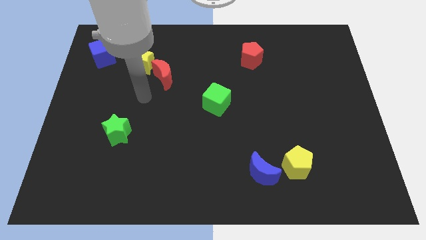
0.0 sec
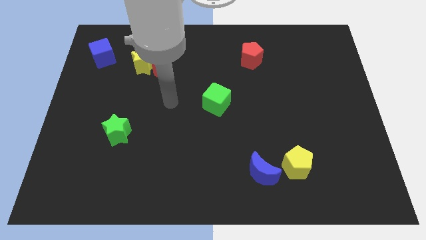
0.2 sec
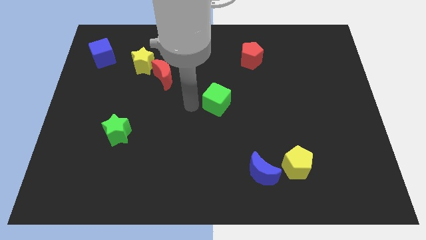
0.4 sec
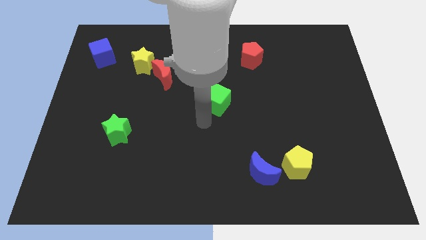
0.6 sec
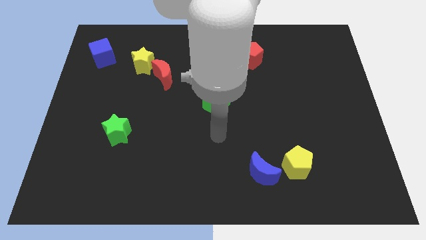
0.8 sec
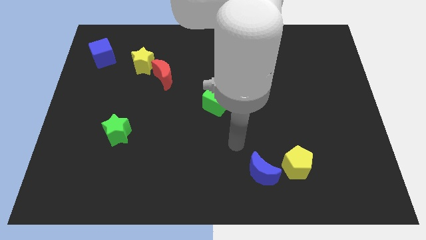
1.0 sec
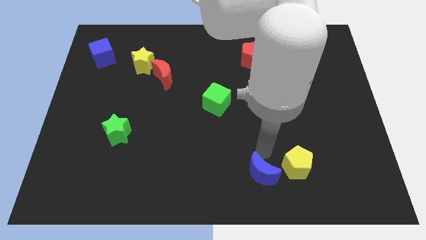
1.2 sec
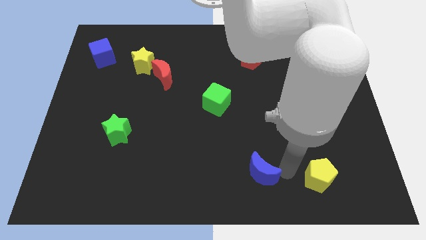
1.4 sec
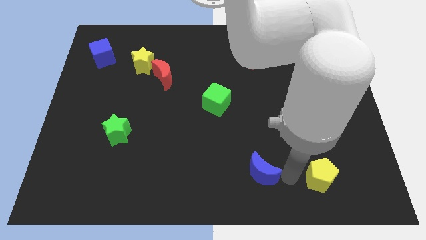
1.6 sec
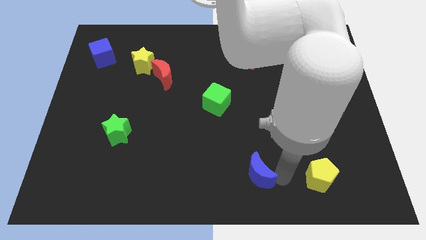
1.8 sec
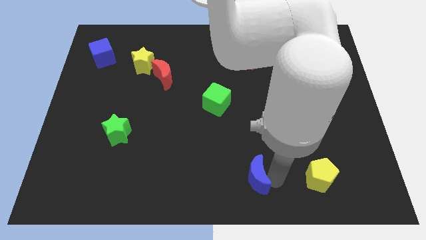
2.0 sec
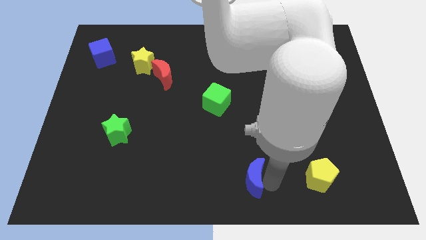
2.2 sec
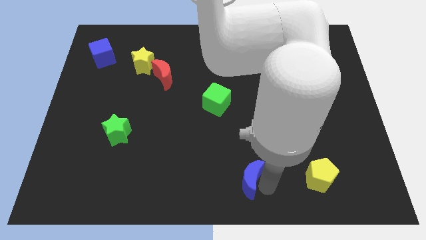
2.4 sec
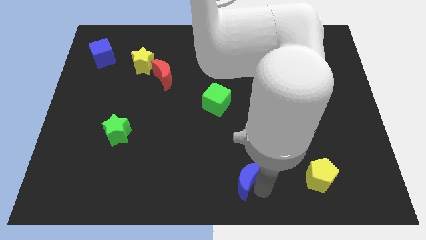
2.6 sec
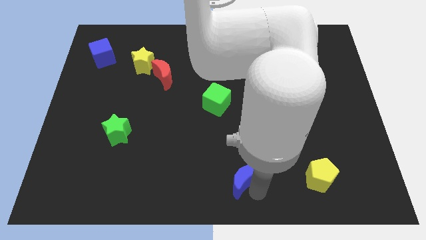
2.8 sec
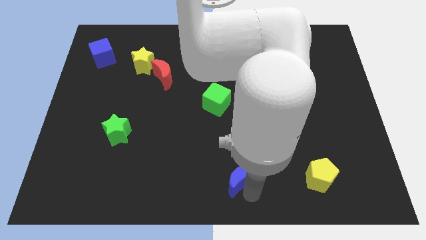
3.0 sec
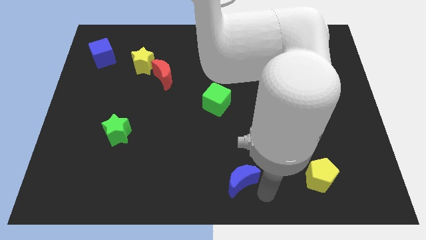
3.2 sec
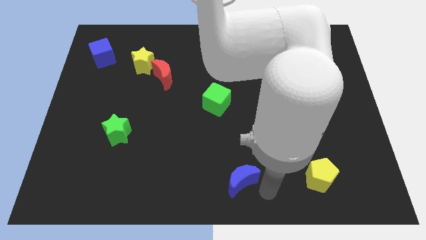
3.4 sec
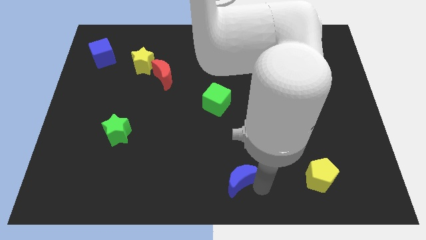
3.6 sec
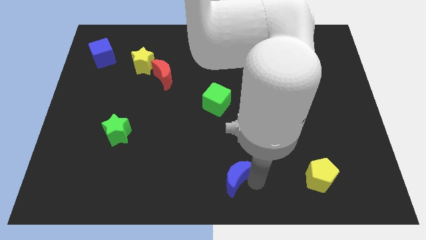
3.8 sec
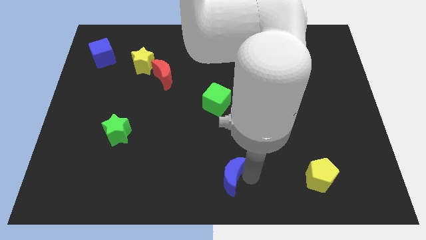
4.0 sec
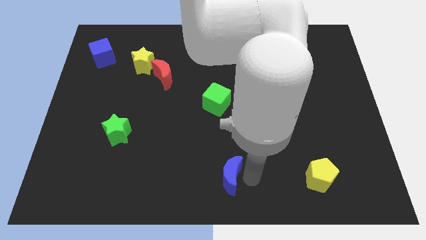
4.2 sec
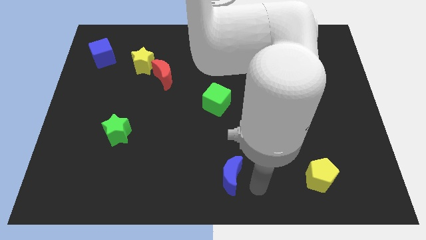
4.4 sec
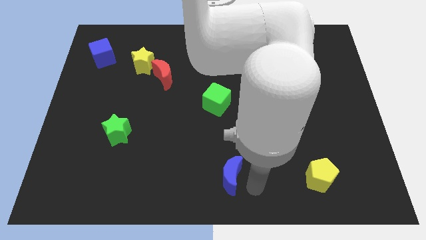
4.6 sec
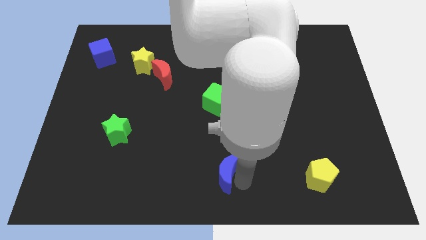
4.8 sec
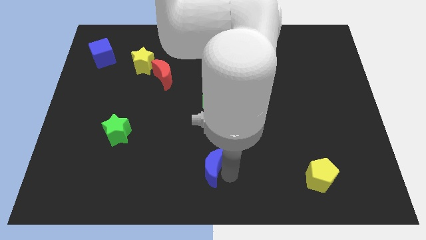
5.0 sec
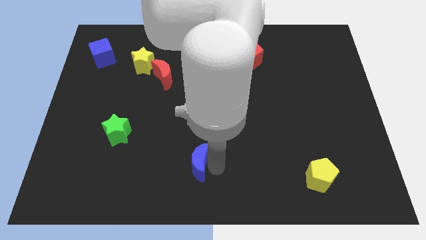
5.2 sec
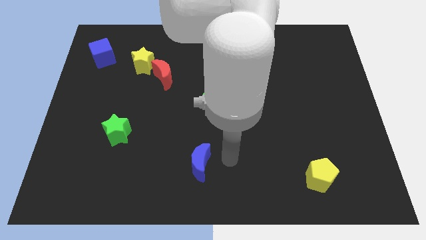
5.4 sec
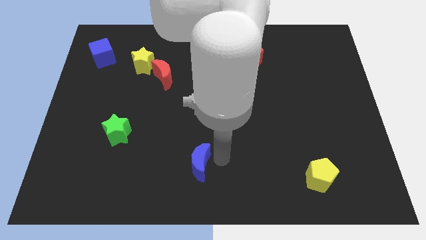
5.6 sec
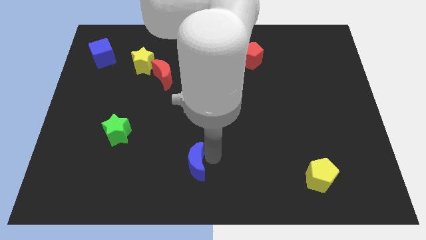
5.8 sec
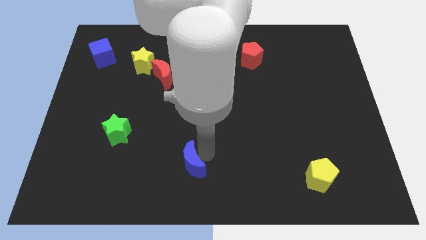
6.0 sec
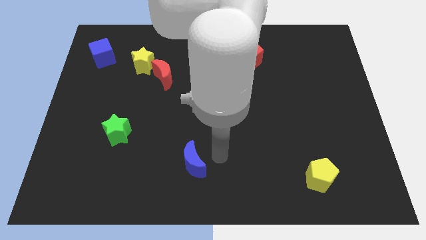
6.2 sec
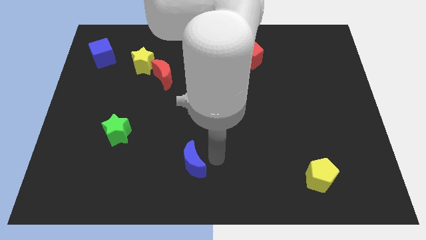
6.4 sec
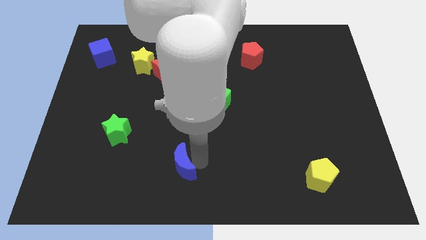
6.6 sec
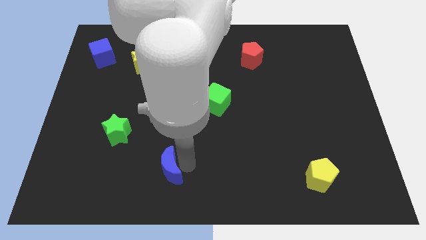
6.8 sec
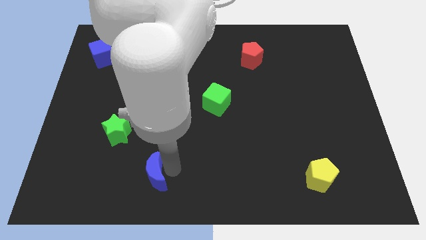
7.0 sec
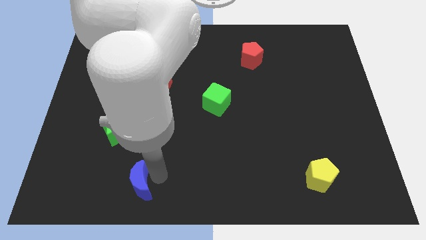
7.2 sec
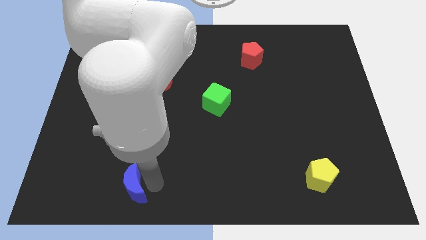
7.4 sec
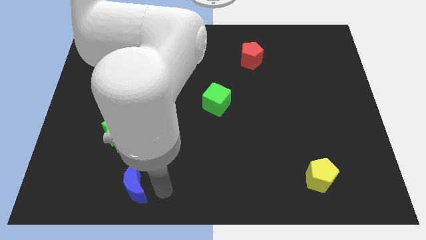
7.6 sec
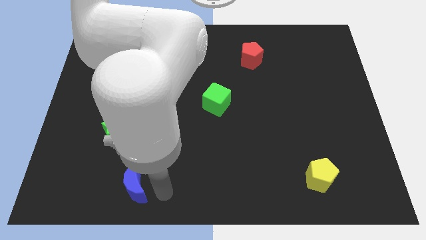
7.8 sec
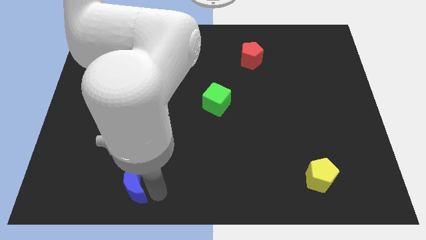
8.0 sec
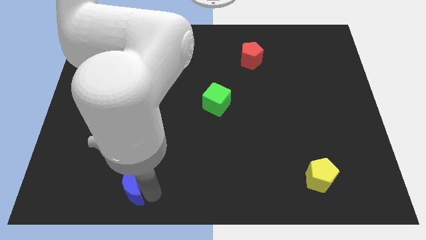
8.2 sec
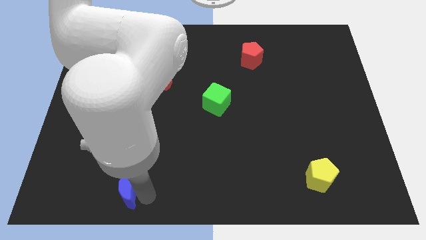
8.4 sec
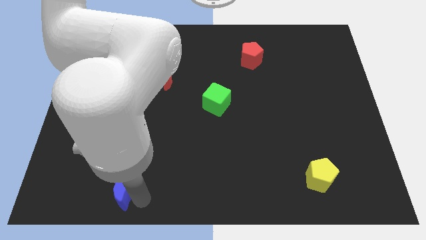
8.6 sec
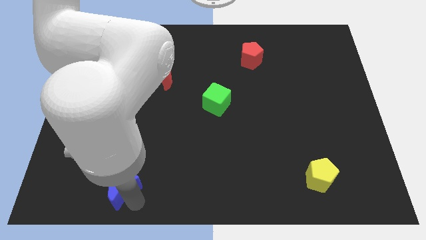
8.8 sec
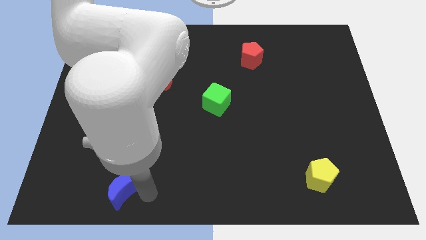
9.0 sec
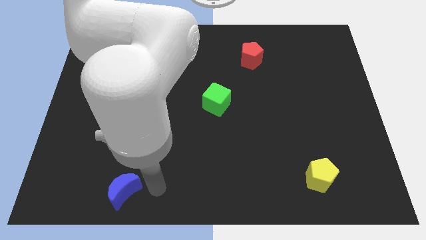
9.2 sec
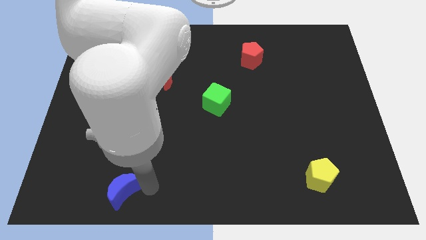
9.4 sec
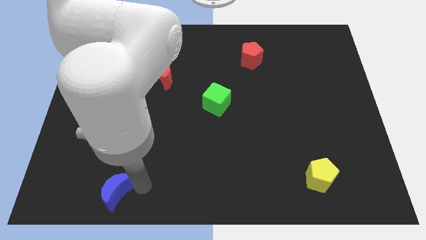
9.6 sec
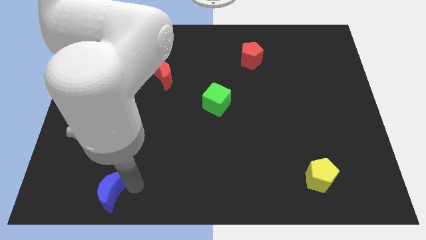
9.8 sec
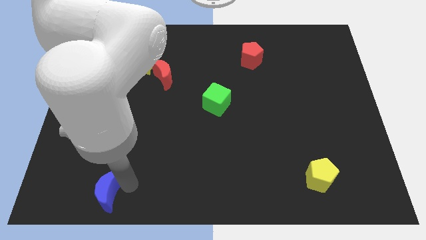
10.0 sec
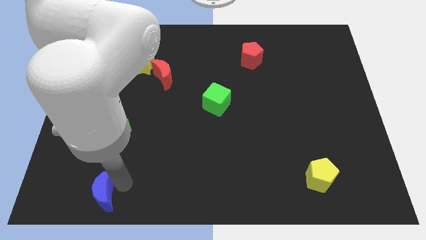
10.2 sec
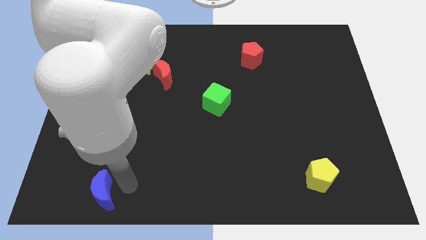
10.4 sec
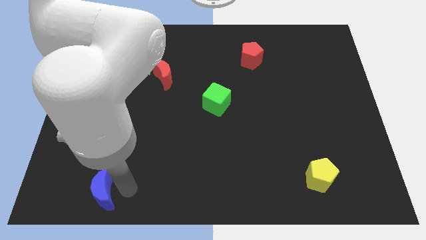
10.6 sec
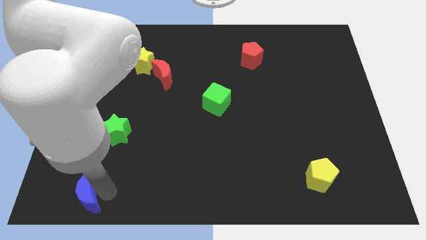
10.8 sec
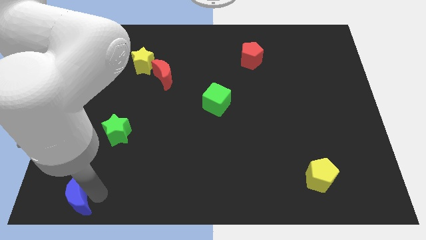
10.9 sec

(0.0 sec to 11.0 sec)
push the blue moon to the lower left corner
